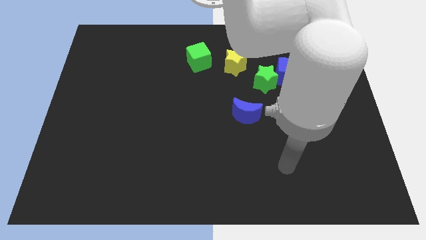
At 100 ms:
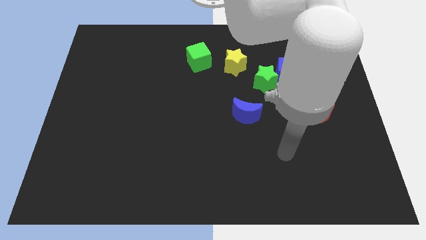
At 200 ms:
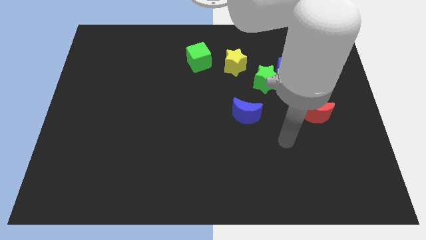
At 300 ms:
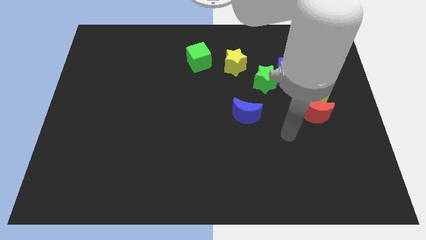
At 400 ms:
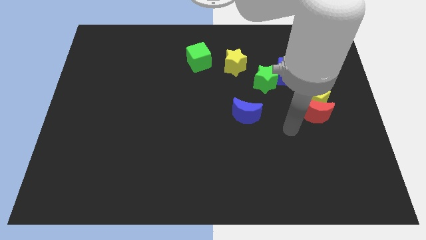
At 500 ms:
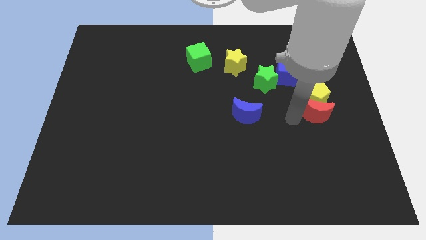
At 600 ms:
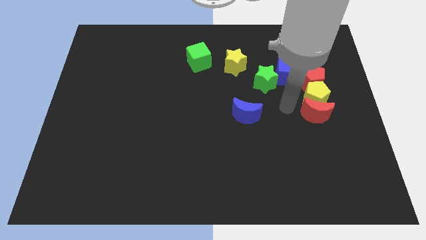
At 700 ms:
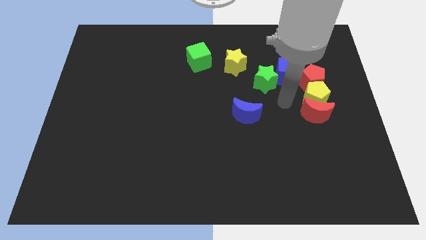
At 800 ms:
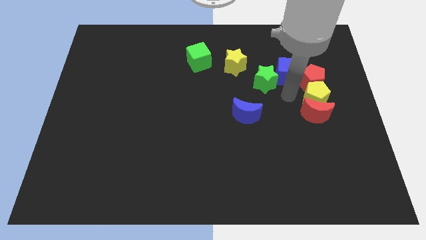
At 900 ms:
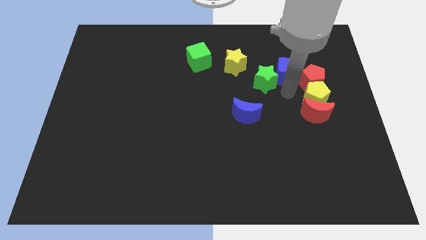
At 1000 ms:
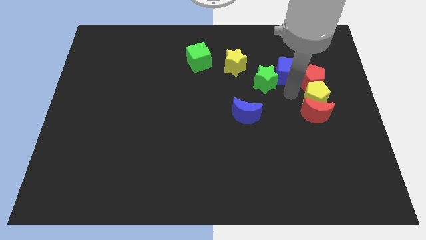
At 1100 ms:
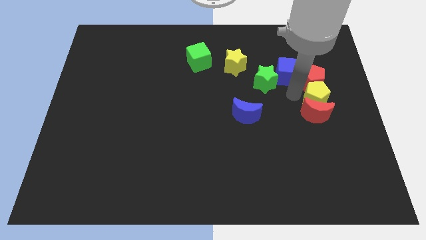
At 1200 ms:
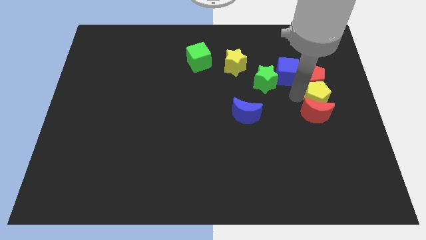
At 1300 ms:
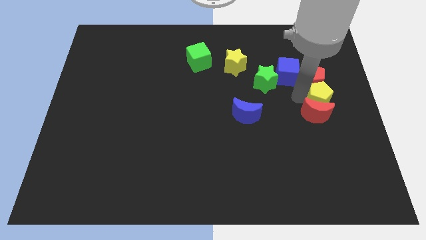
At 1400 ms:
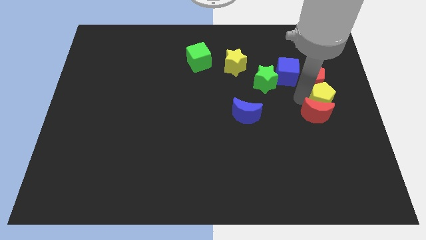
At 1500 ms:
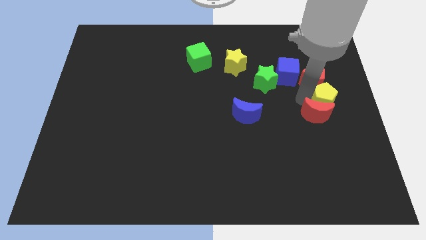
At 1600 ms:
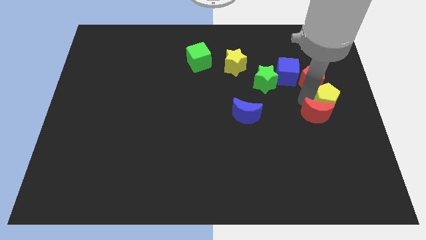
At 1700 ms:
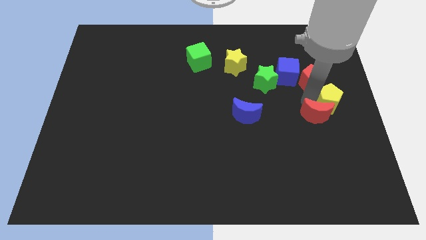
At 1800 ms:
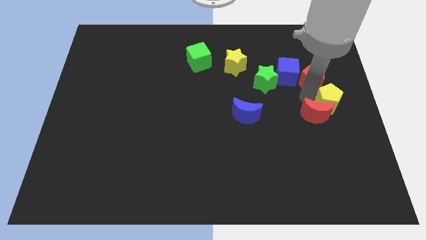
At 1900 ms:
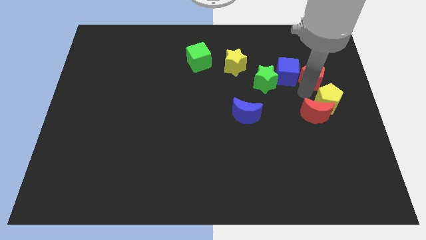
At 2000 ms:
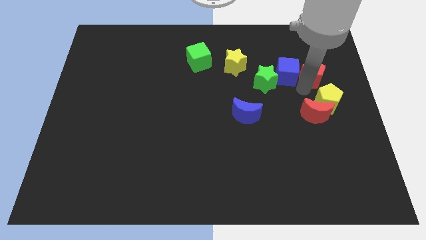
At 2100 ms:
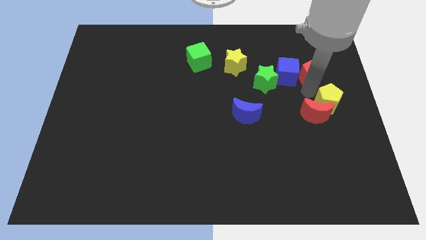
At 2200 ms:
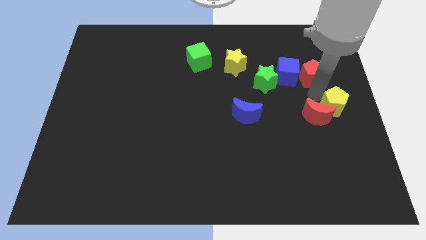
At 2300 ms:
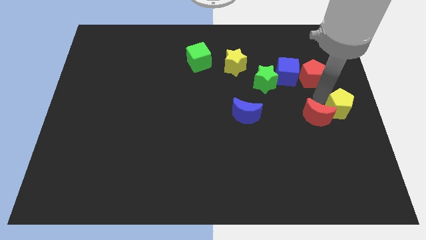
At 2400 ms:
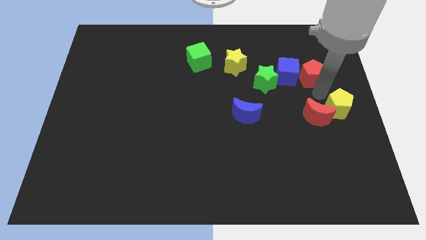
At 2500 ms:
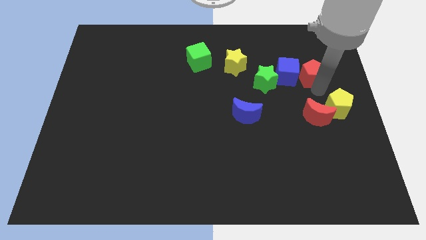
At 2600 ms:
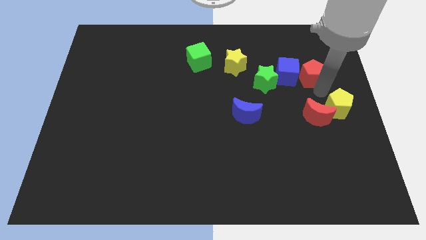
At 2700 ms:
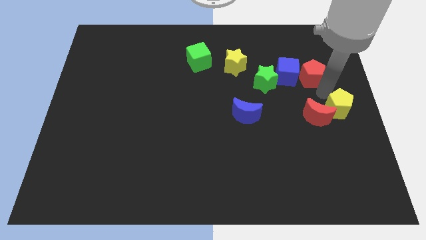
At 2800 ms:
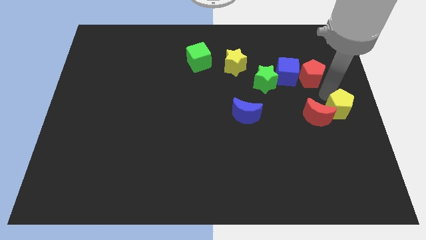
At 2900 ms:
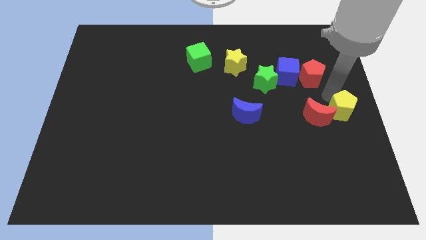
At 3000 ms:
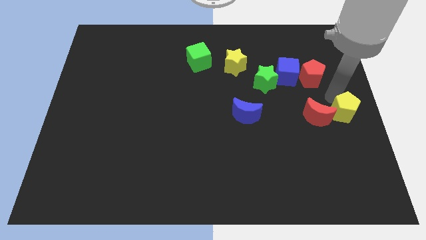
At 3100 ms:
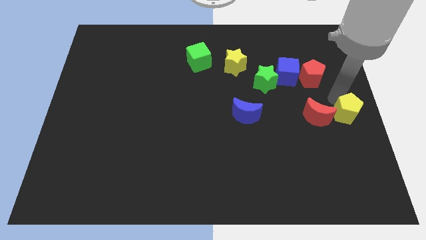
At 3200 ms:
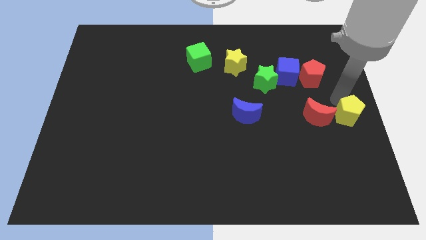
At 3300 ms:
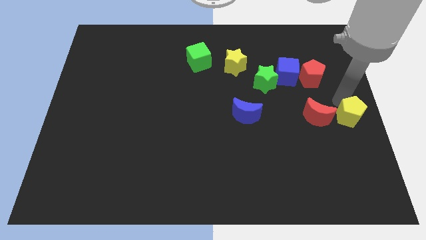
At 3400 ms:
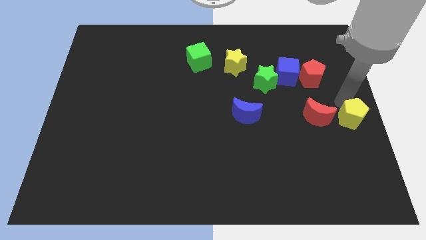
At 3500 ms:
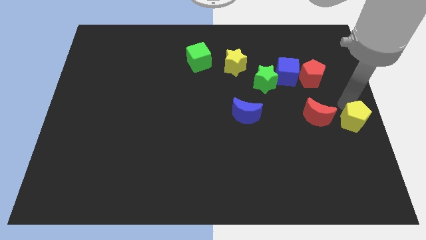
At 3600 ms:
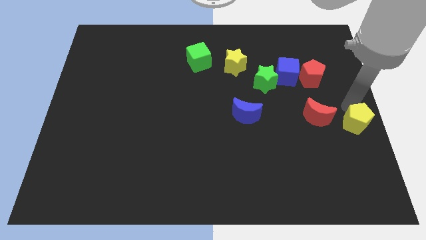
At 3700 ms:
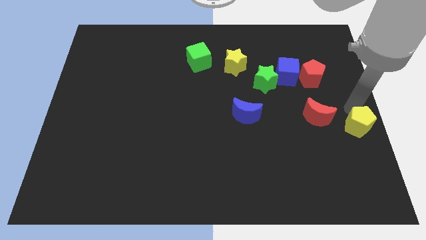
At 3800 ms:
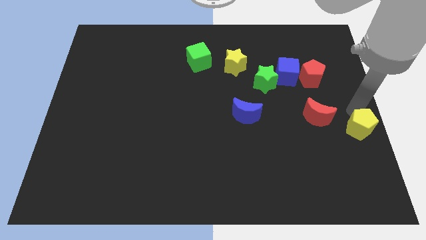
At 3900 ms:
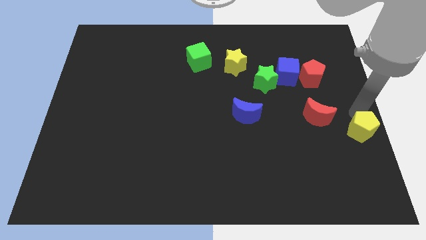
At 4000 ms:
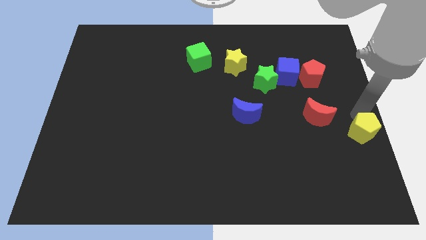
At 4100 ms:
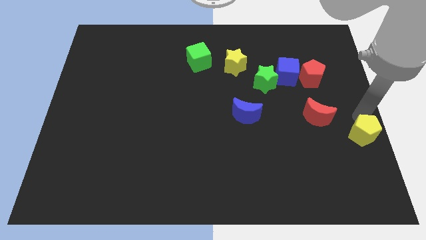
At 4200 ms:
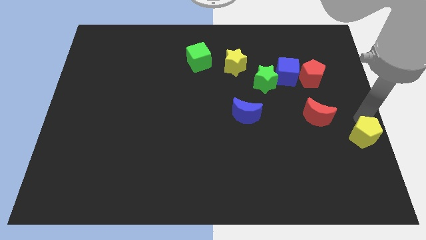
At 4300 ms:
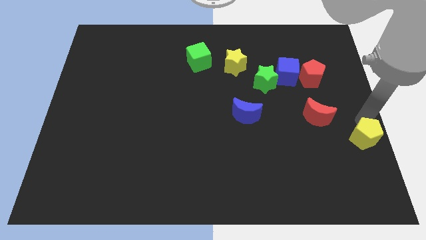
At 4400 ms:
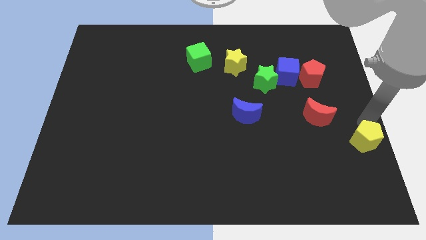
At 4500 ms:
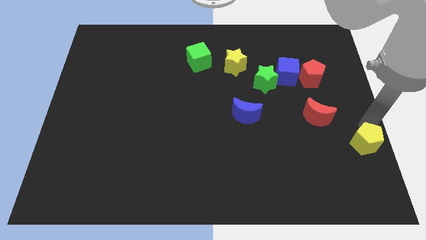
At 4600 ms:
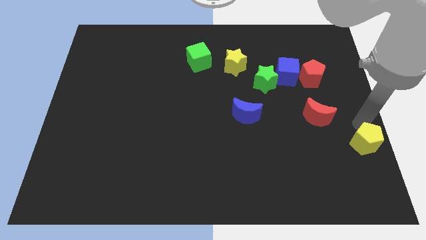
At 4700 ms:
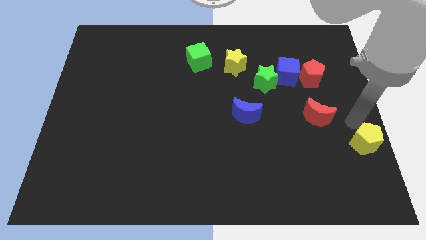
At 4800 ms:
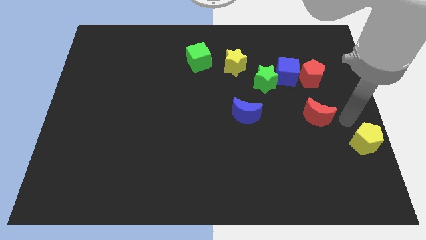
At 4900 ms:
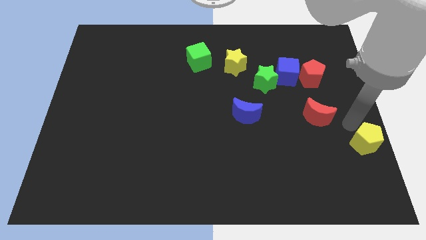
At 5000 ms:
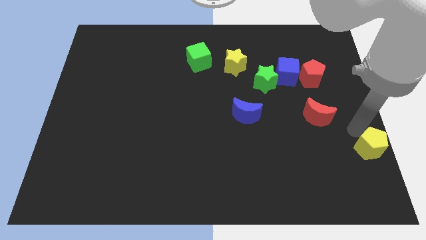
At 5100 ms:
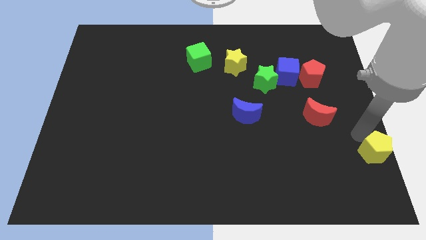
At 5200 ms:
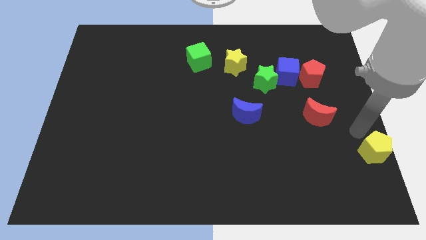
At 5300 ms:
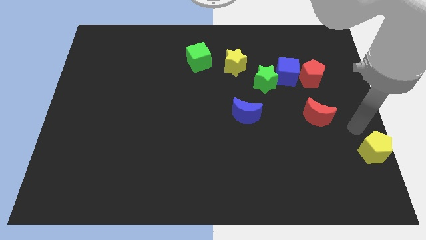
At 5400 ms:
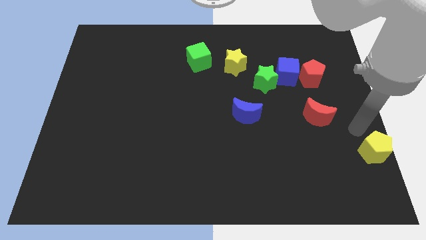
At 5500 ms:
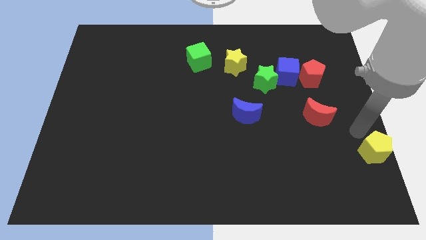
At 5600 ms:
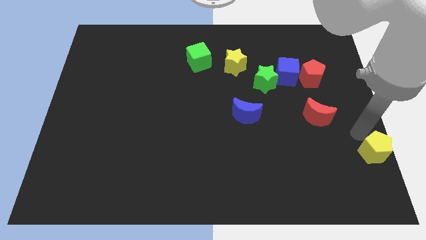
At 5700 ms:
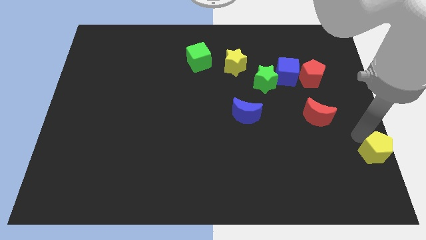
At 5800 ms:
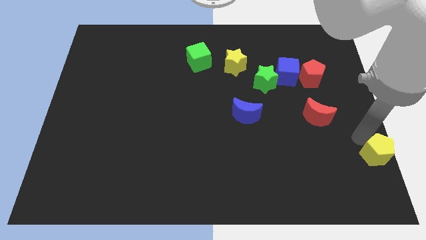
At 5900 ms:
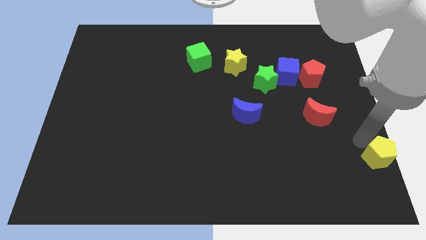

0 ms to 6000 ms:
move the yellow pentagon to the bottom right of the board
